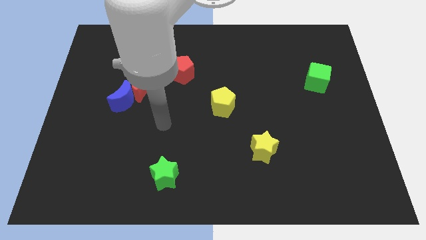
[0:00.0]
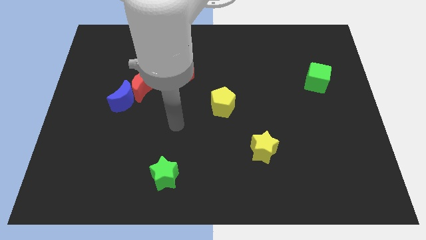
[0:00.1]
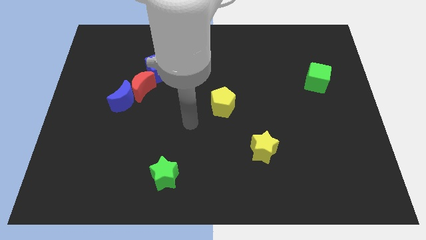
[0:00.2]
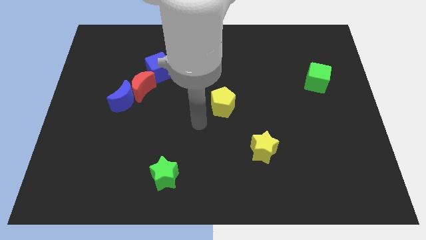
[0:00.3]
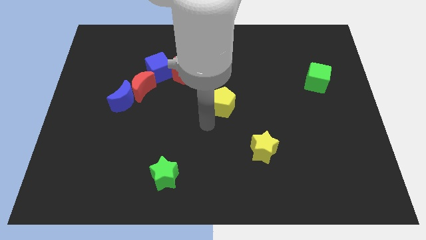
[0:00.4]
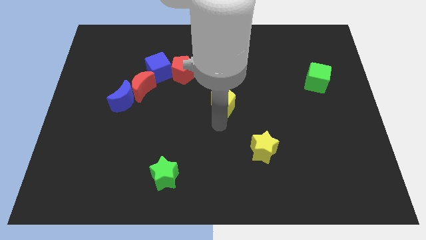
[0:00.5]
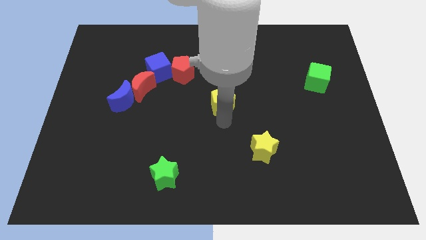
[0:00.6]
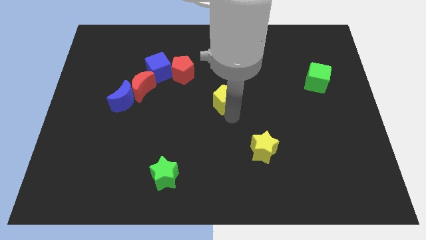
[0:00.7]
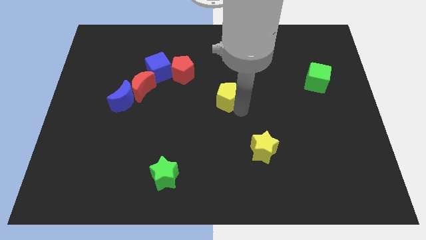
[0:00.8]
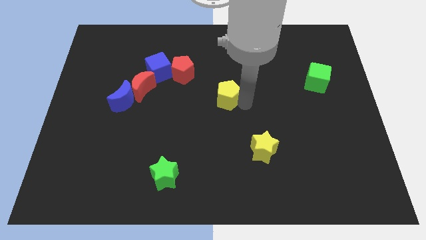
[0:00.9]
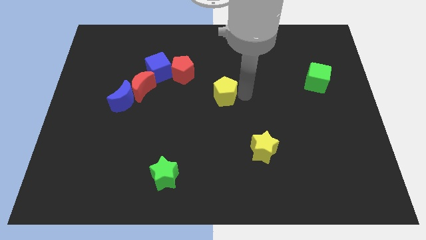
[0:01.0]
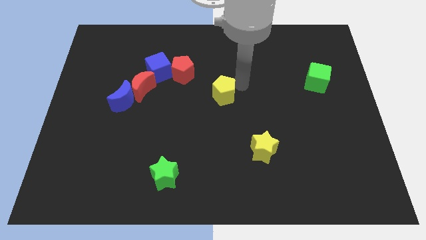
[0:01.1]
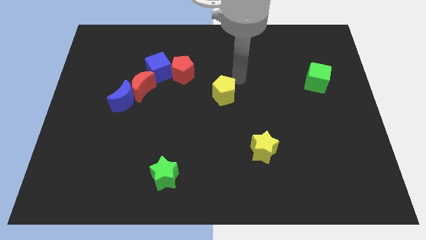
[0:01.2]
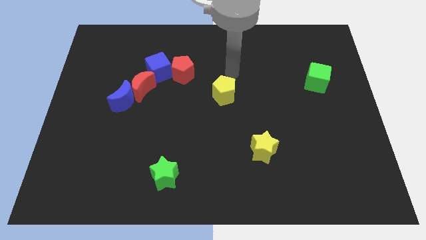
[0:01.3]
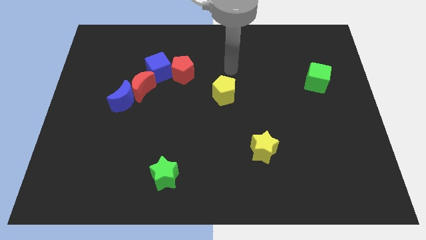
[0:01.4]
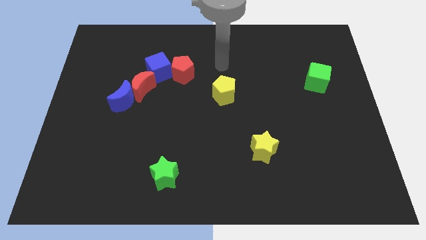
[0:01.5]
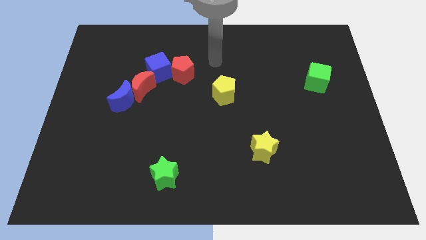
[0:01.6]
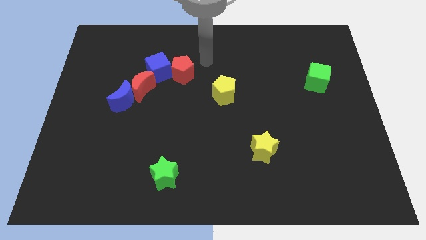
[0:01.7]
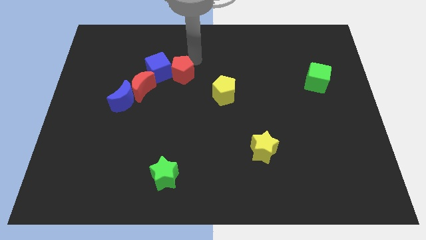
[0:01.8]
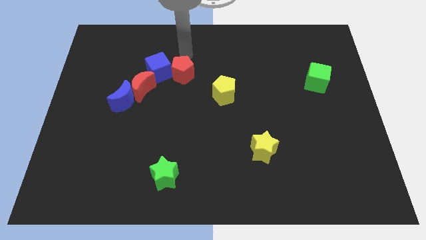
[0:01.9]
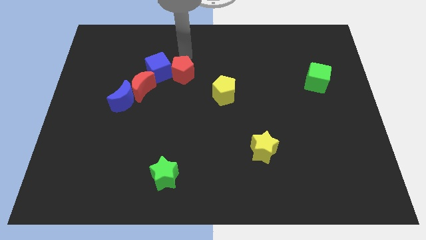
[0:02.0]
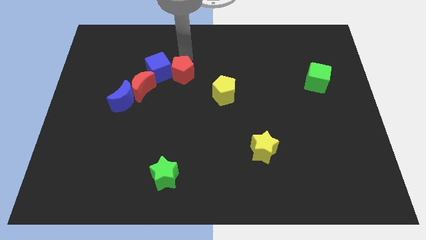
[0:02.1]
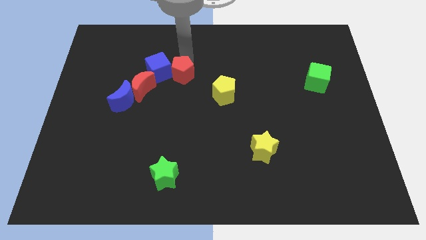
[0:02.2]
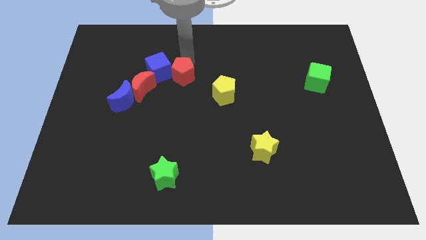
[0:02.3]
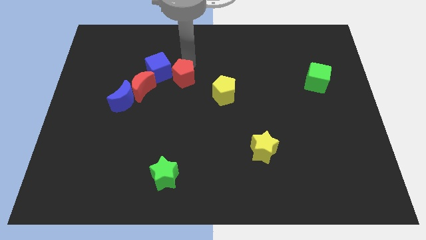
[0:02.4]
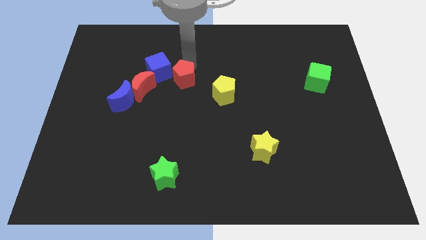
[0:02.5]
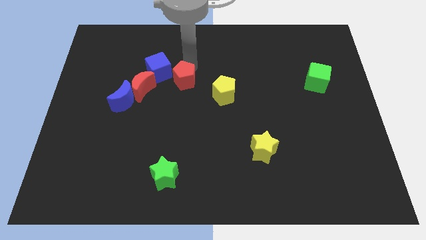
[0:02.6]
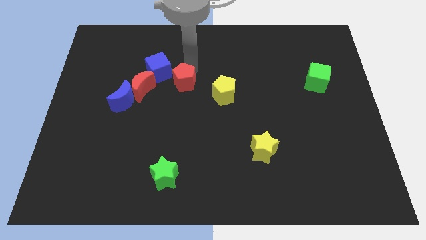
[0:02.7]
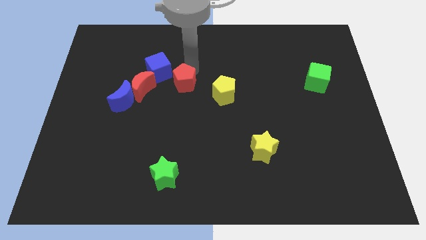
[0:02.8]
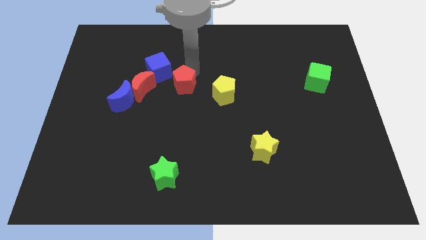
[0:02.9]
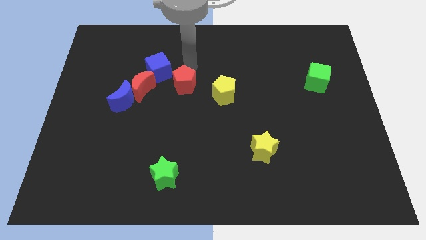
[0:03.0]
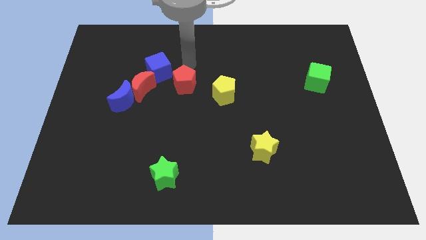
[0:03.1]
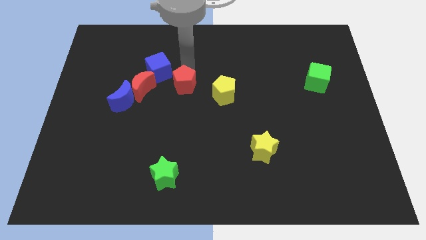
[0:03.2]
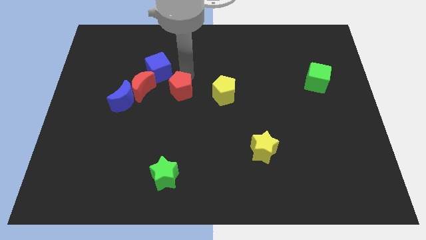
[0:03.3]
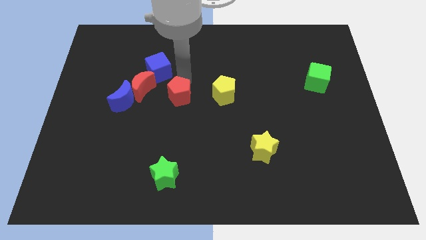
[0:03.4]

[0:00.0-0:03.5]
push the red pentagon a little down

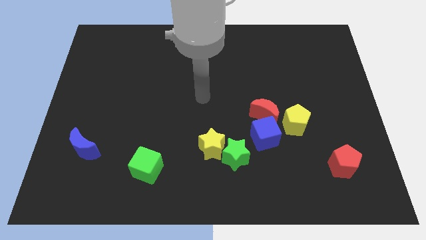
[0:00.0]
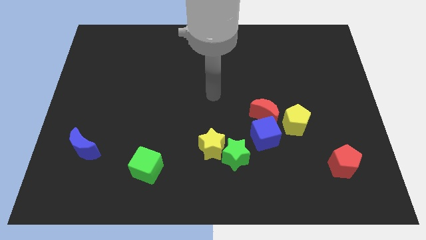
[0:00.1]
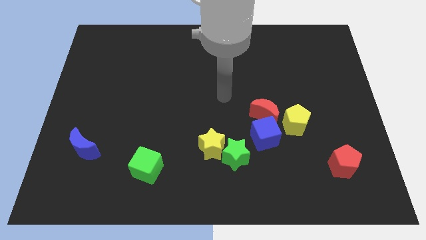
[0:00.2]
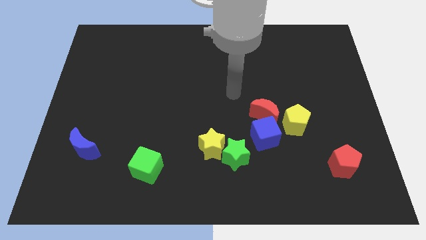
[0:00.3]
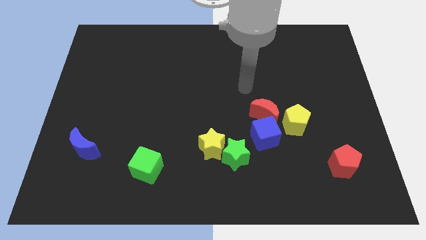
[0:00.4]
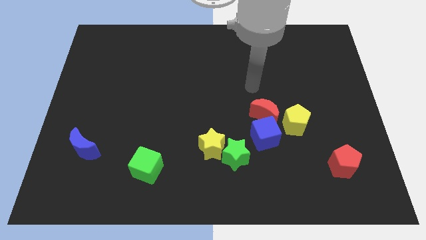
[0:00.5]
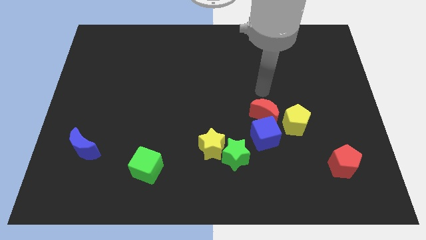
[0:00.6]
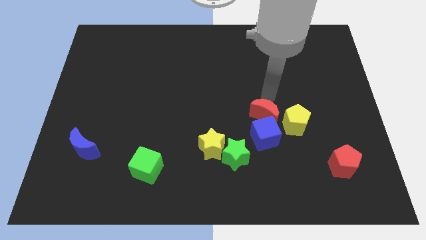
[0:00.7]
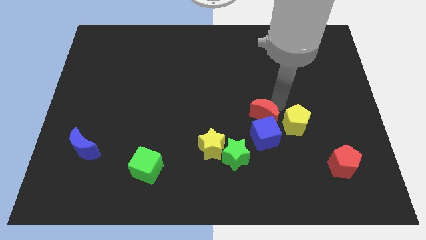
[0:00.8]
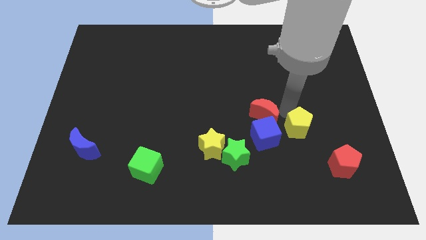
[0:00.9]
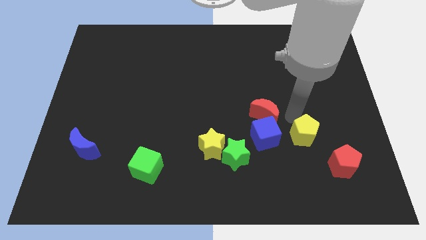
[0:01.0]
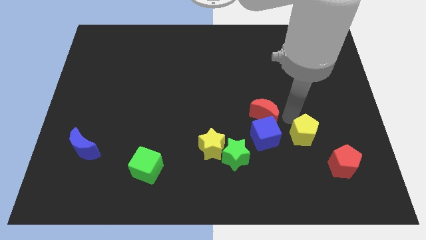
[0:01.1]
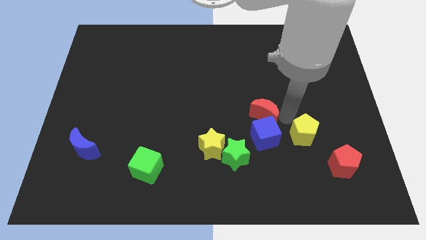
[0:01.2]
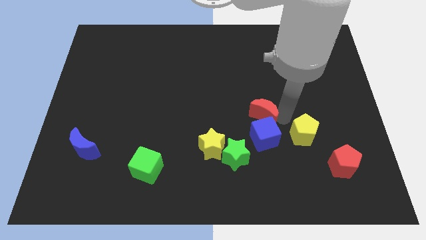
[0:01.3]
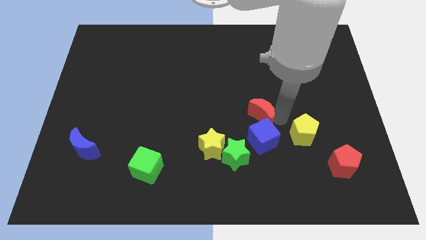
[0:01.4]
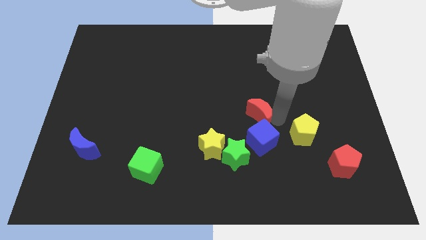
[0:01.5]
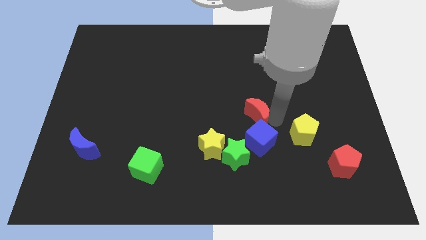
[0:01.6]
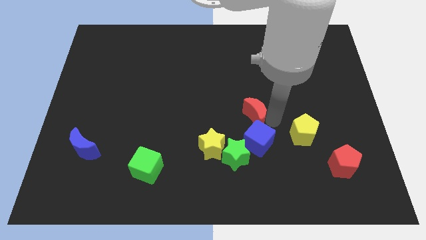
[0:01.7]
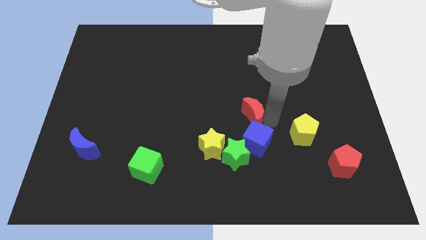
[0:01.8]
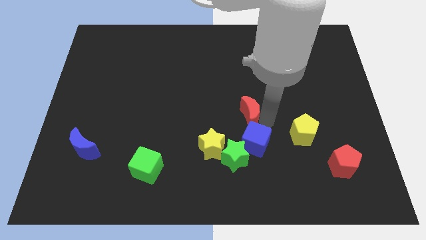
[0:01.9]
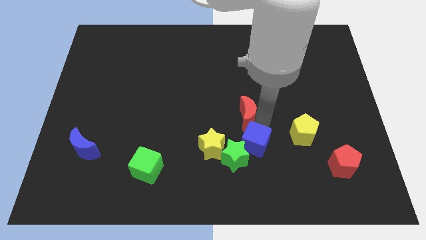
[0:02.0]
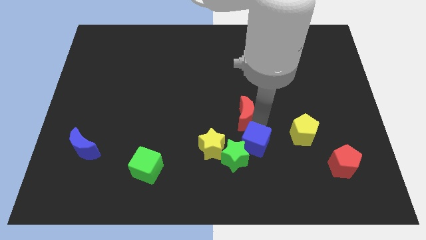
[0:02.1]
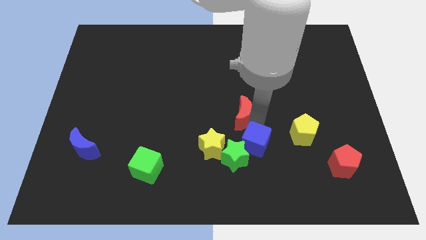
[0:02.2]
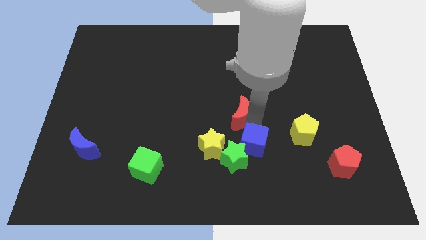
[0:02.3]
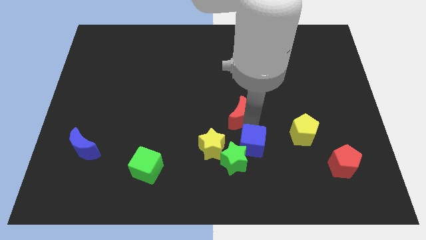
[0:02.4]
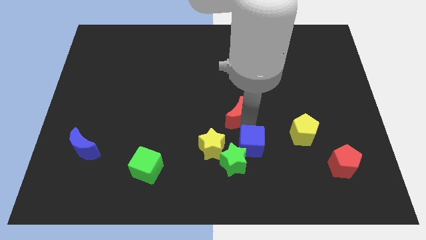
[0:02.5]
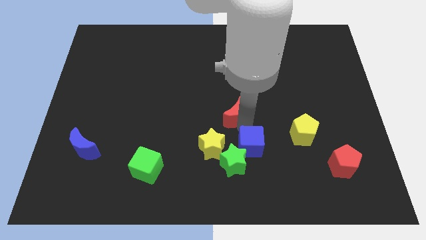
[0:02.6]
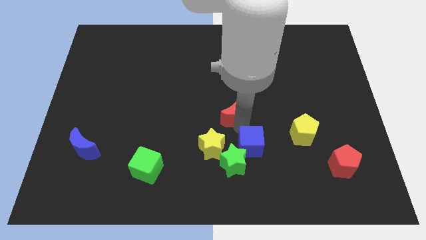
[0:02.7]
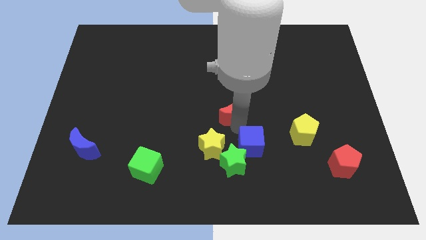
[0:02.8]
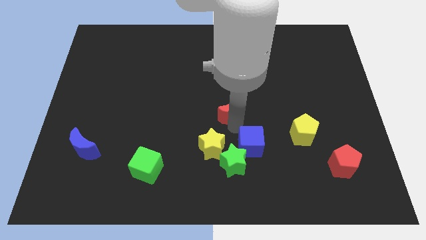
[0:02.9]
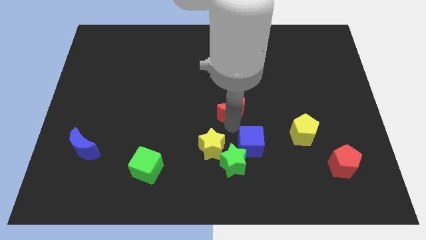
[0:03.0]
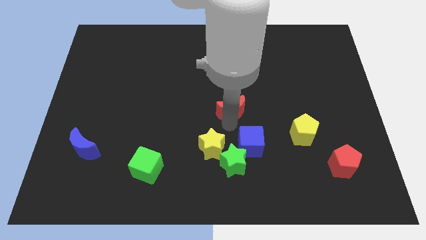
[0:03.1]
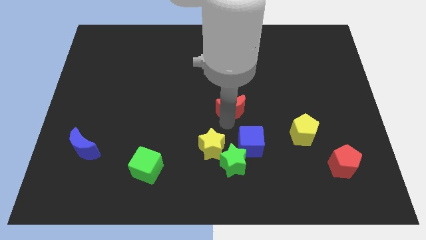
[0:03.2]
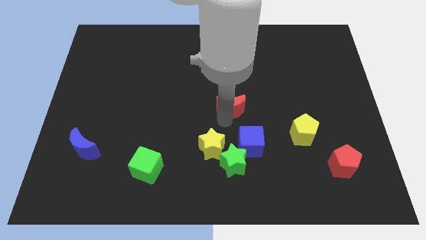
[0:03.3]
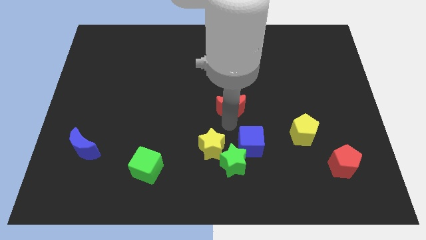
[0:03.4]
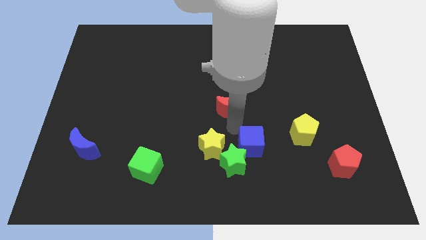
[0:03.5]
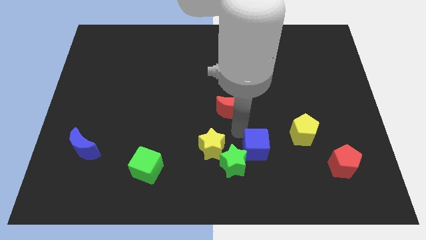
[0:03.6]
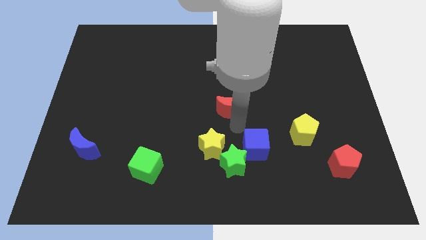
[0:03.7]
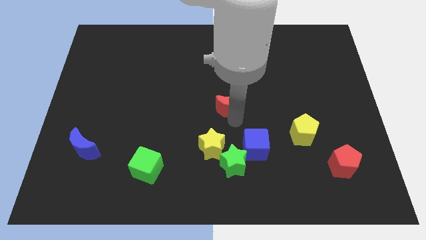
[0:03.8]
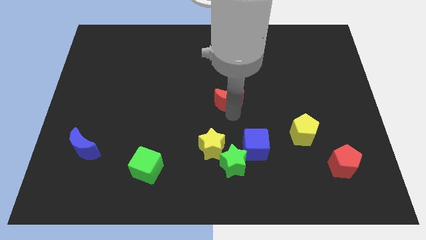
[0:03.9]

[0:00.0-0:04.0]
push the red moon up and left a bit

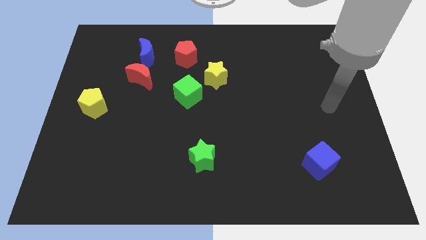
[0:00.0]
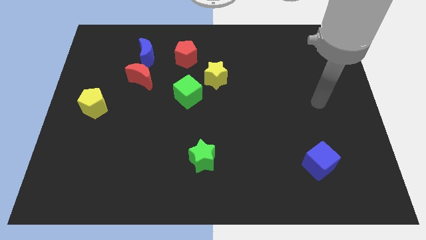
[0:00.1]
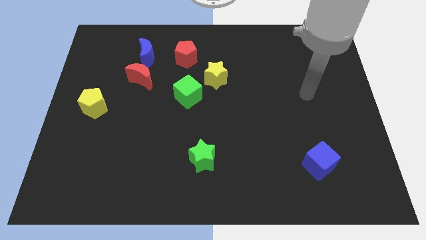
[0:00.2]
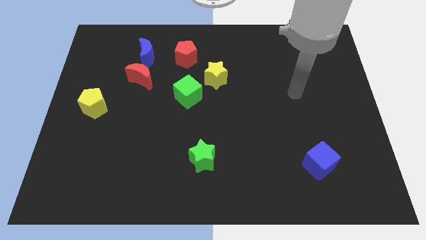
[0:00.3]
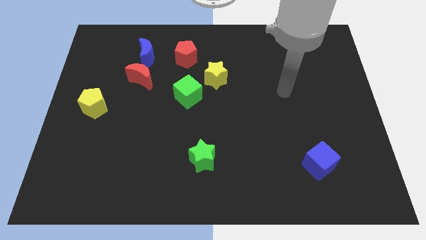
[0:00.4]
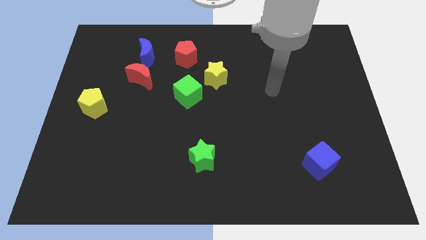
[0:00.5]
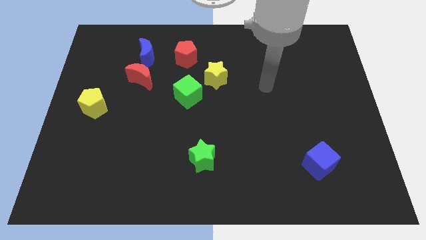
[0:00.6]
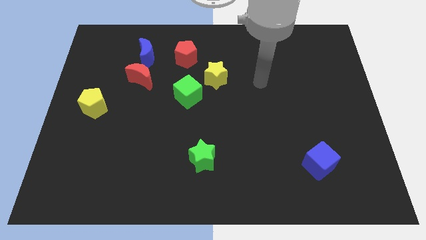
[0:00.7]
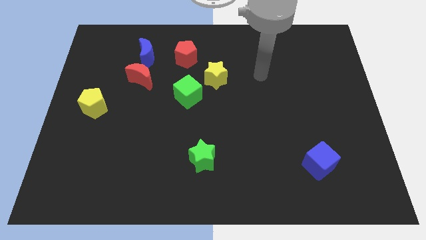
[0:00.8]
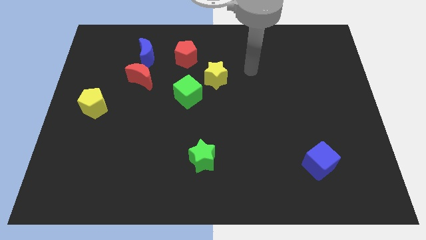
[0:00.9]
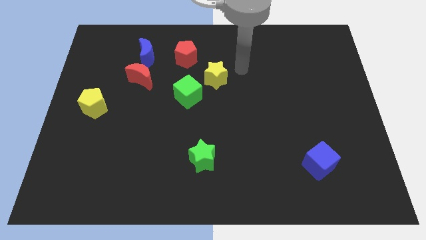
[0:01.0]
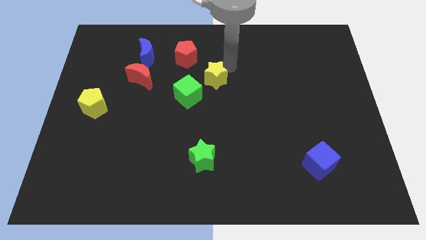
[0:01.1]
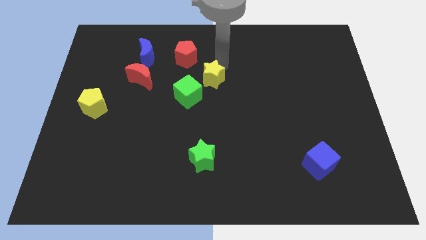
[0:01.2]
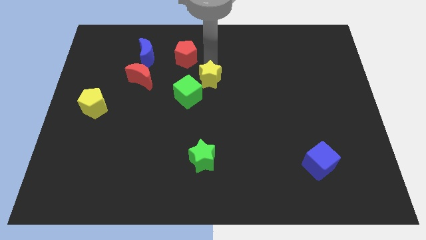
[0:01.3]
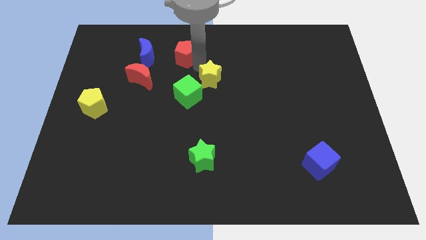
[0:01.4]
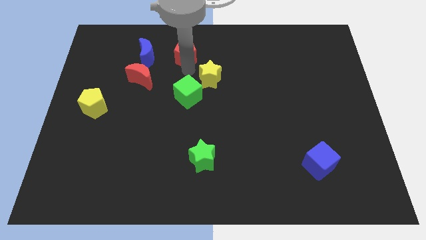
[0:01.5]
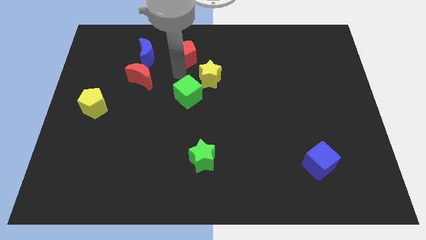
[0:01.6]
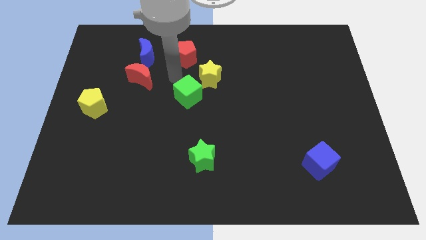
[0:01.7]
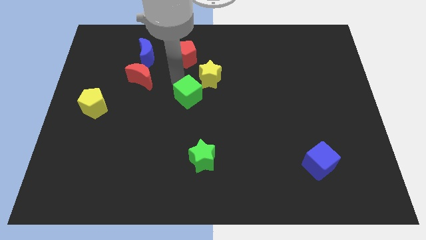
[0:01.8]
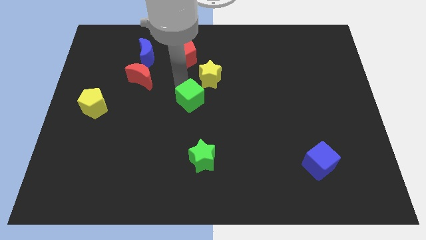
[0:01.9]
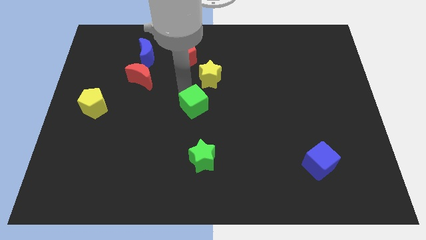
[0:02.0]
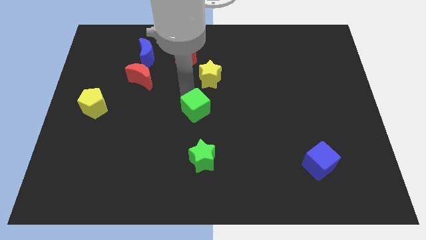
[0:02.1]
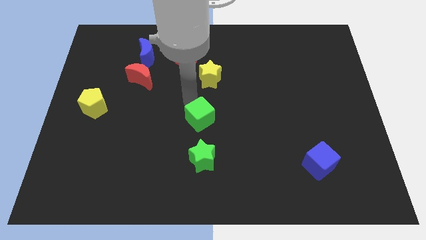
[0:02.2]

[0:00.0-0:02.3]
move the green cube a bit downwards and to the right diagonally
